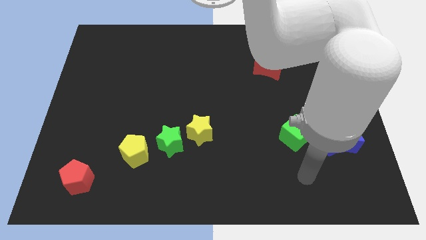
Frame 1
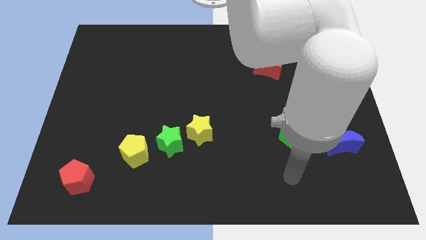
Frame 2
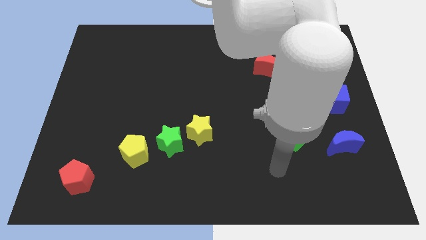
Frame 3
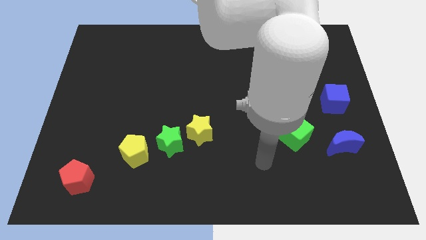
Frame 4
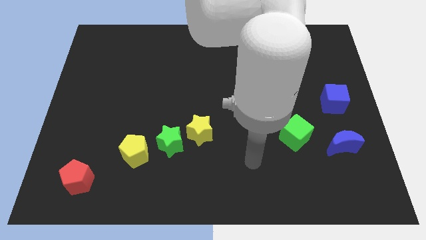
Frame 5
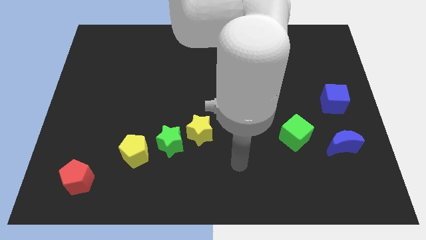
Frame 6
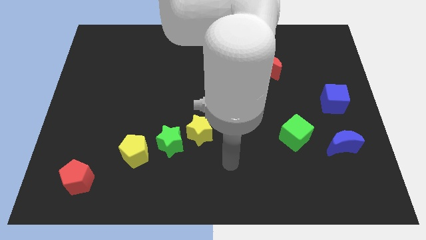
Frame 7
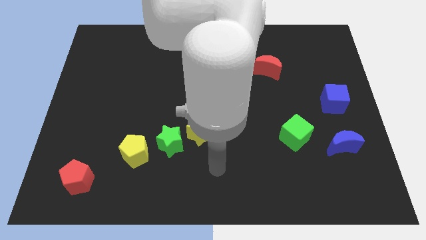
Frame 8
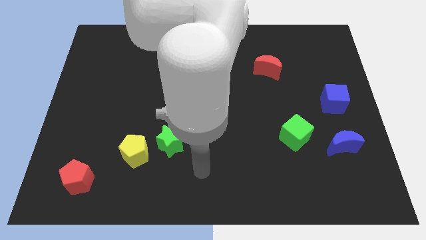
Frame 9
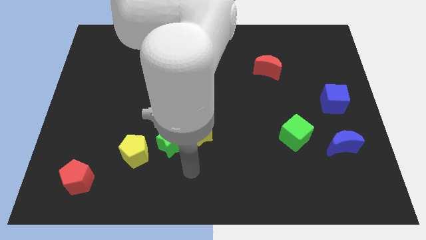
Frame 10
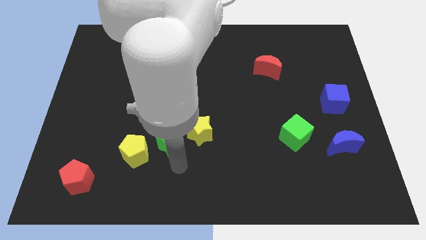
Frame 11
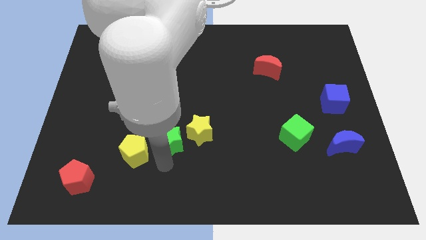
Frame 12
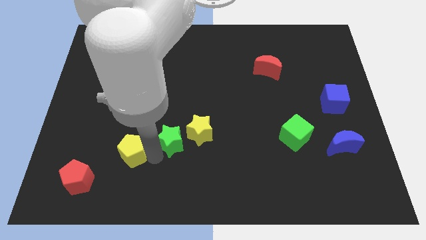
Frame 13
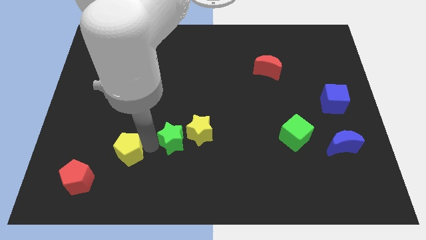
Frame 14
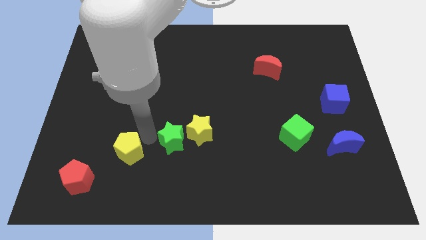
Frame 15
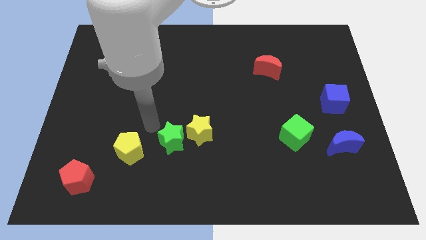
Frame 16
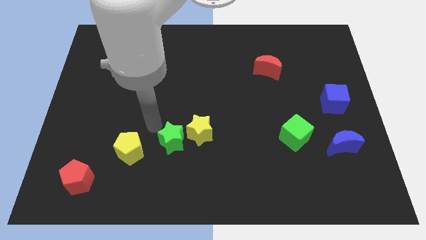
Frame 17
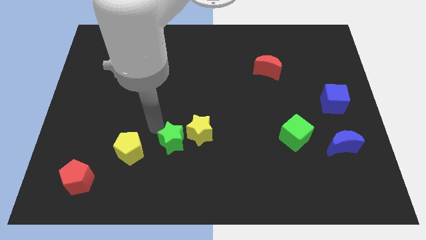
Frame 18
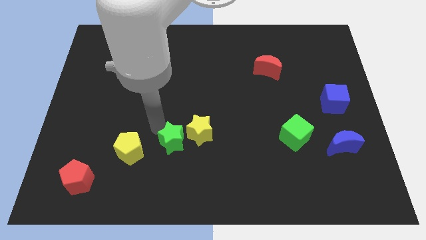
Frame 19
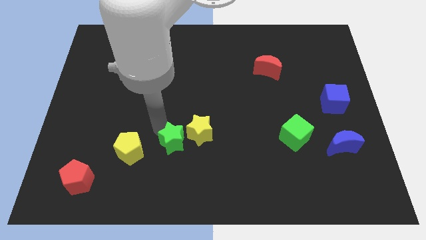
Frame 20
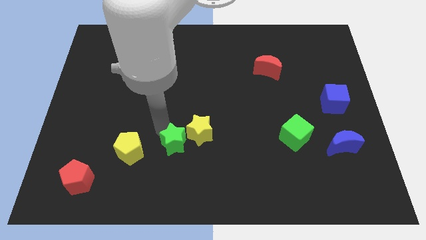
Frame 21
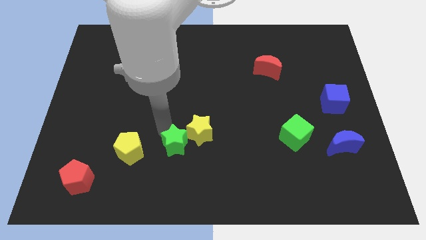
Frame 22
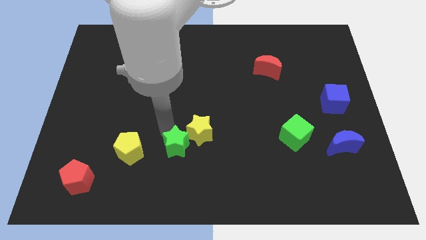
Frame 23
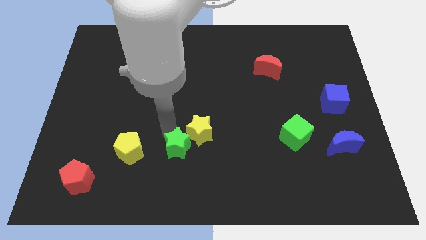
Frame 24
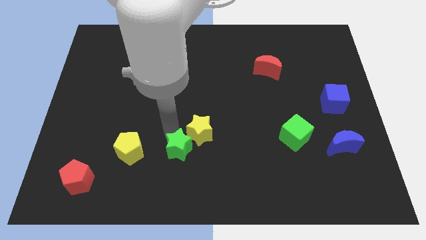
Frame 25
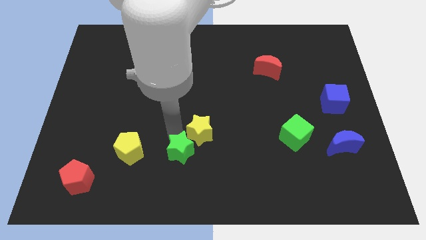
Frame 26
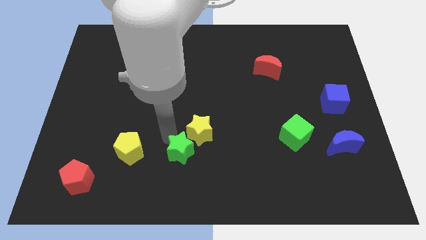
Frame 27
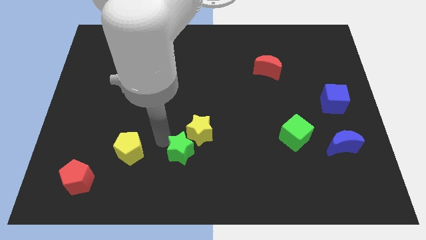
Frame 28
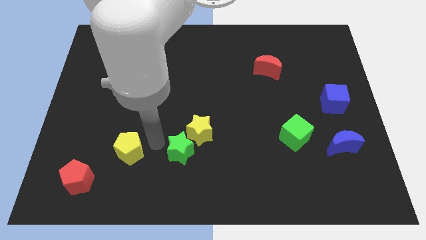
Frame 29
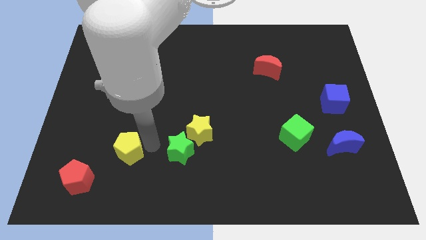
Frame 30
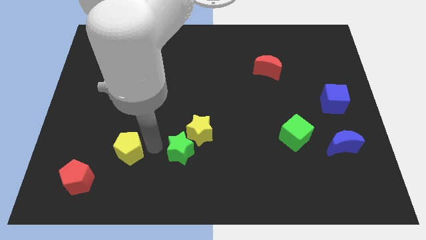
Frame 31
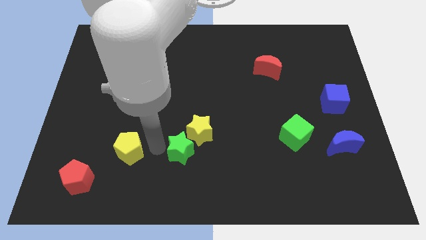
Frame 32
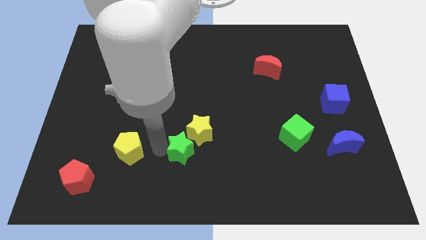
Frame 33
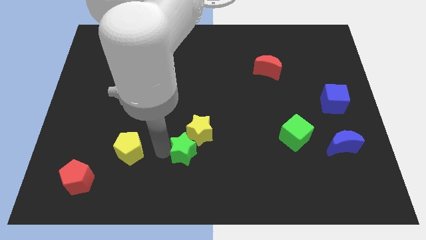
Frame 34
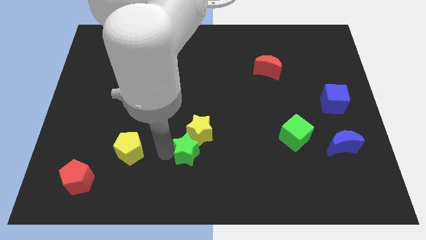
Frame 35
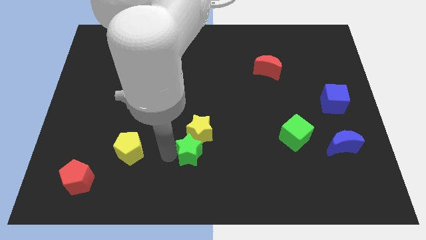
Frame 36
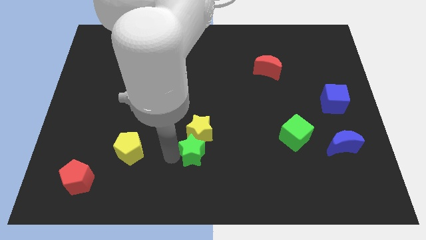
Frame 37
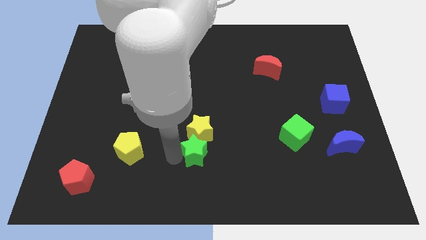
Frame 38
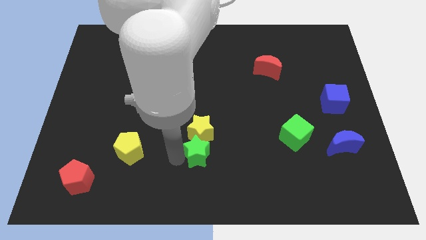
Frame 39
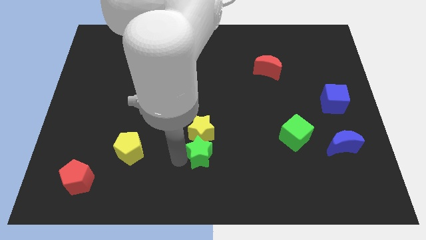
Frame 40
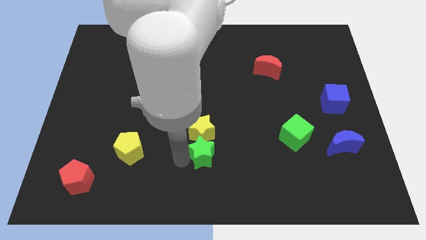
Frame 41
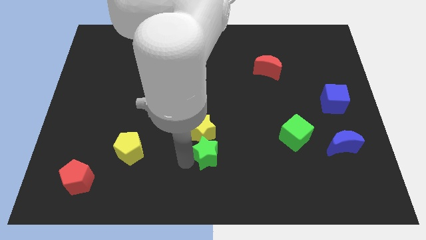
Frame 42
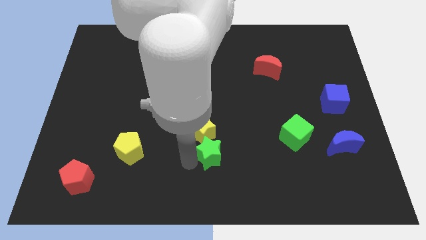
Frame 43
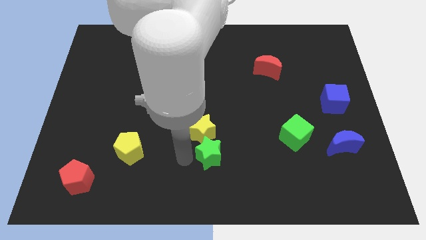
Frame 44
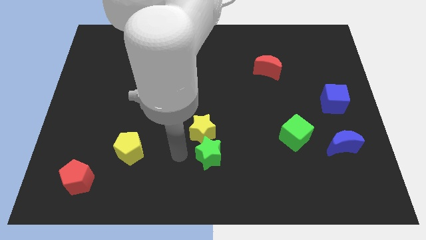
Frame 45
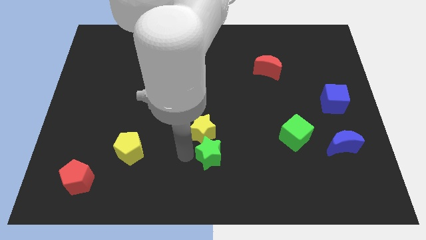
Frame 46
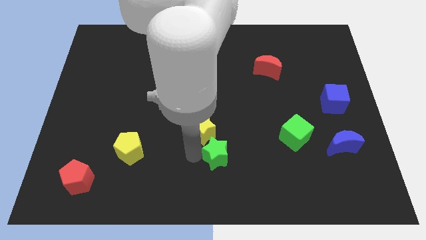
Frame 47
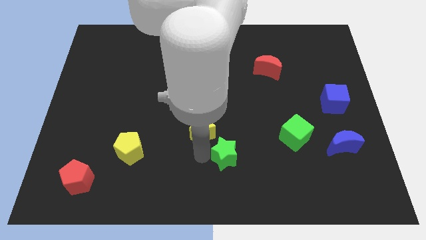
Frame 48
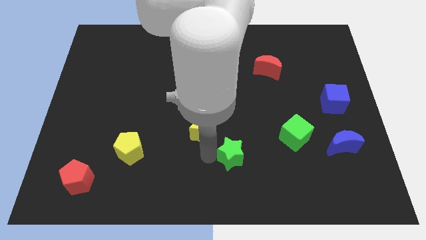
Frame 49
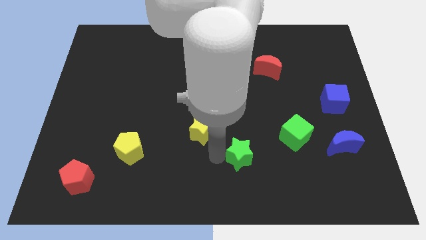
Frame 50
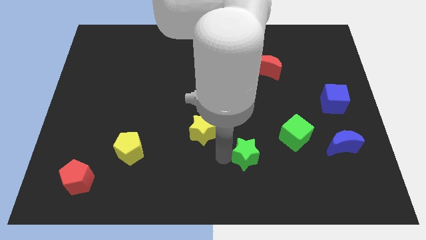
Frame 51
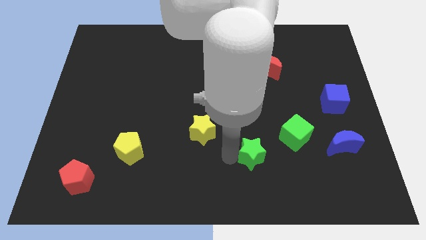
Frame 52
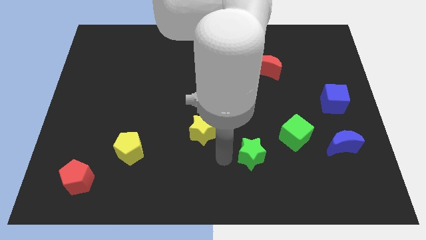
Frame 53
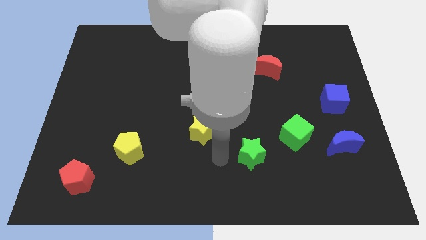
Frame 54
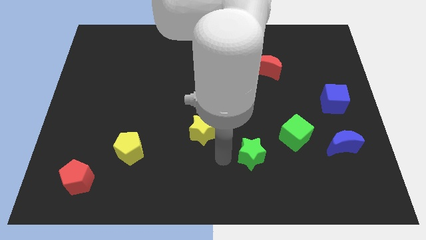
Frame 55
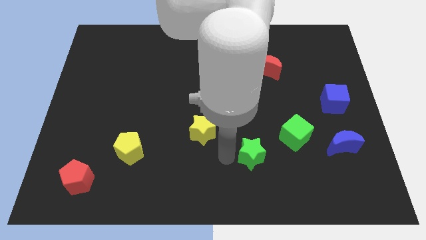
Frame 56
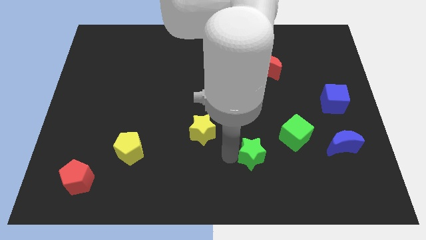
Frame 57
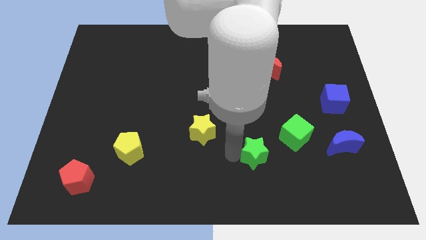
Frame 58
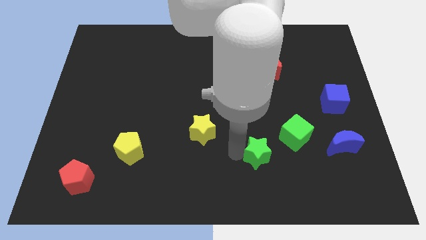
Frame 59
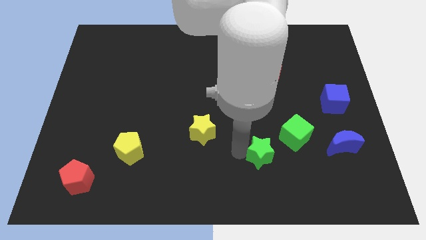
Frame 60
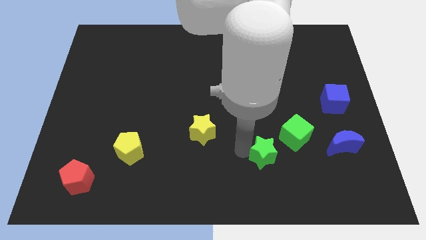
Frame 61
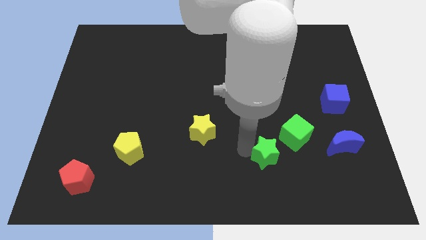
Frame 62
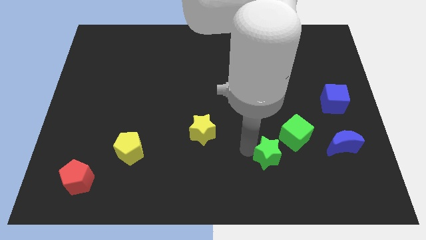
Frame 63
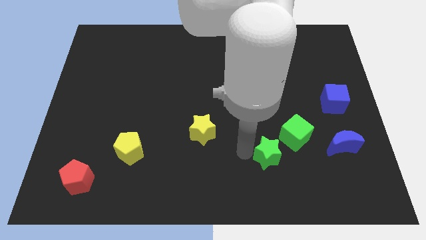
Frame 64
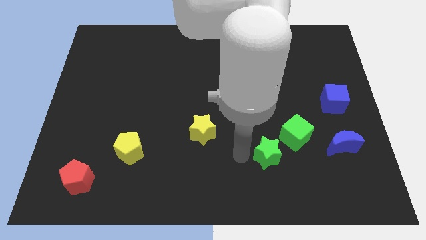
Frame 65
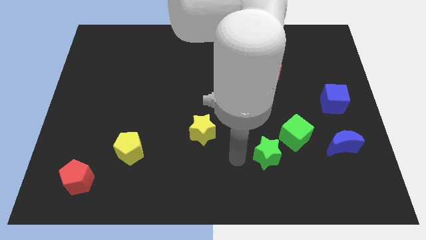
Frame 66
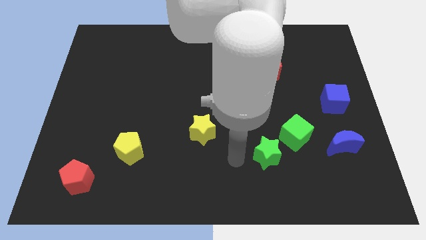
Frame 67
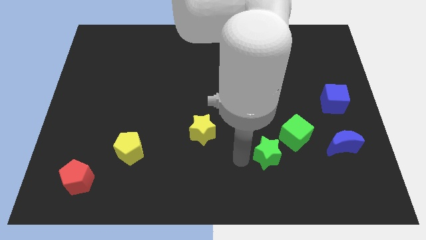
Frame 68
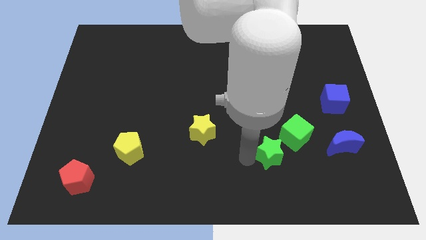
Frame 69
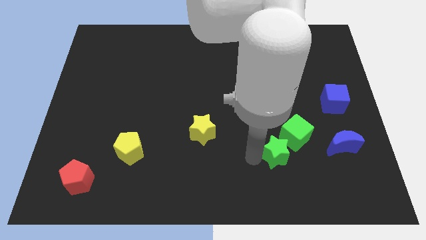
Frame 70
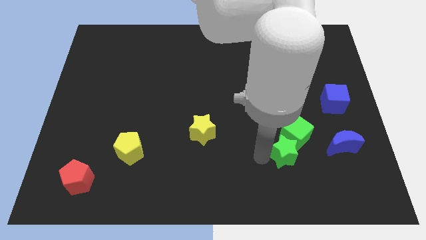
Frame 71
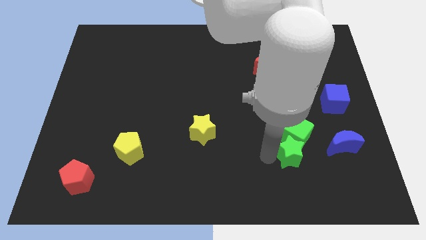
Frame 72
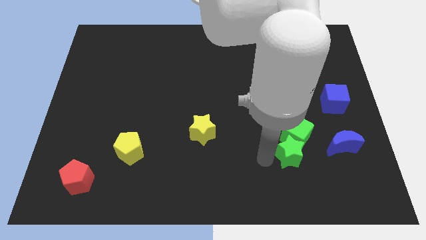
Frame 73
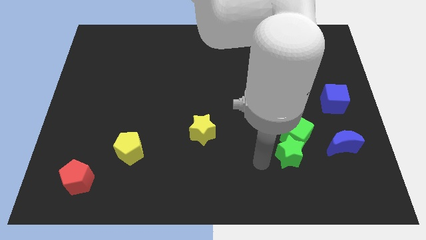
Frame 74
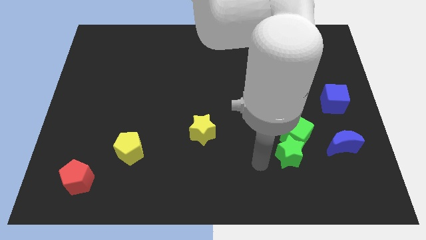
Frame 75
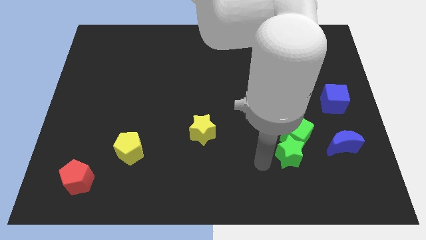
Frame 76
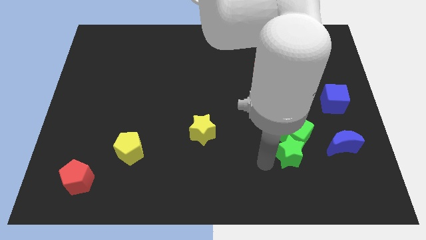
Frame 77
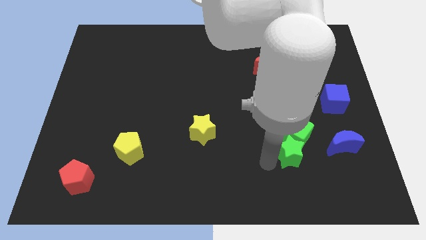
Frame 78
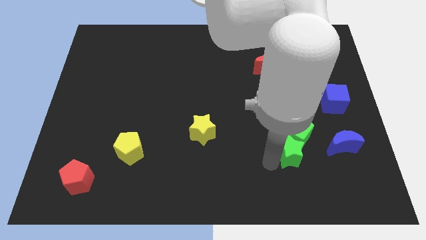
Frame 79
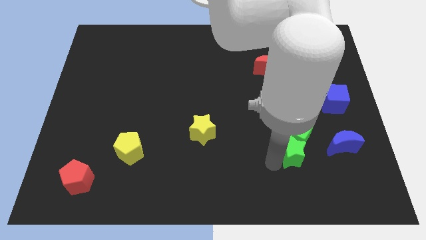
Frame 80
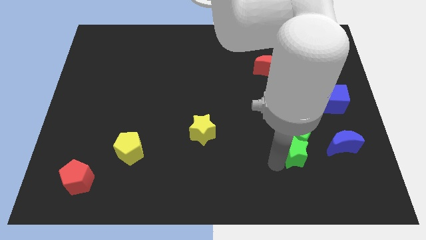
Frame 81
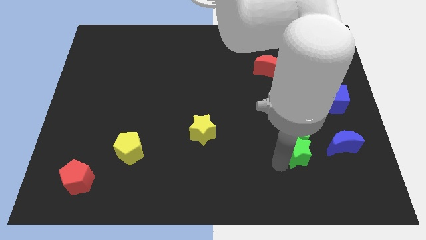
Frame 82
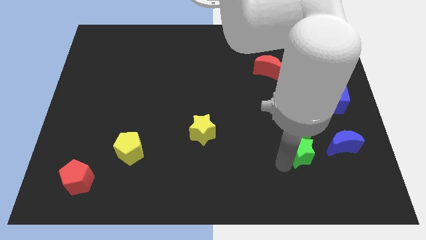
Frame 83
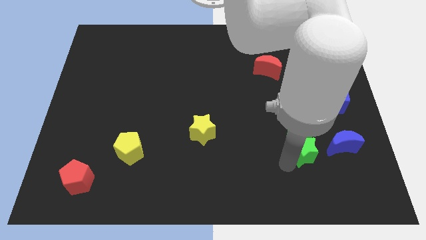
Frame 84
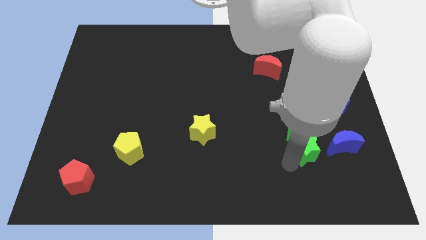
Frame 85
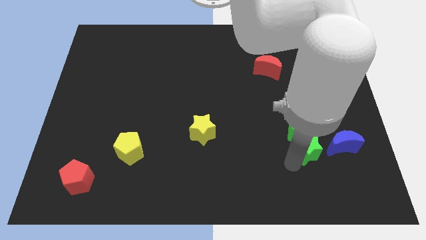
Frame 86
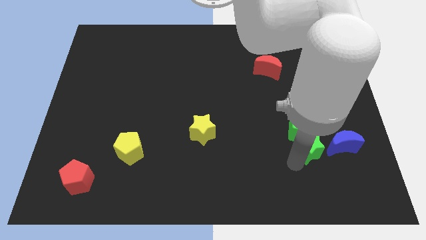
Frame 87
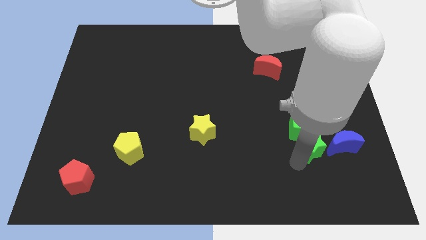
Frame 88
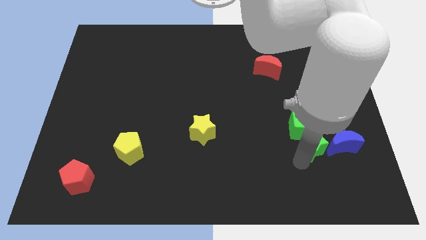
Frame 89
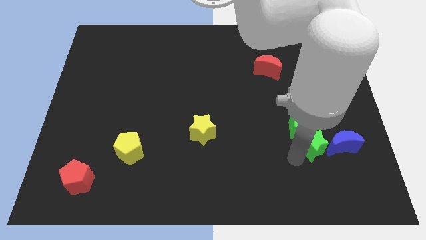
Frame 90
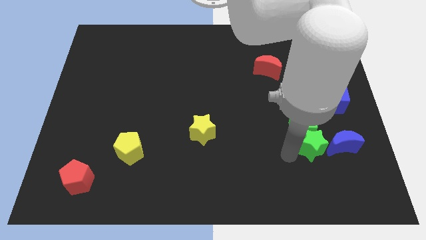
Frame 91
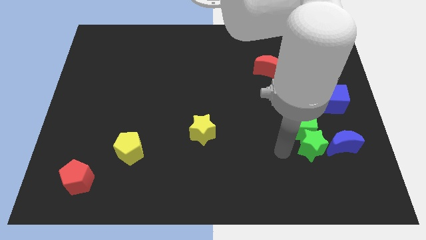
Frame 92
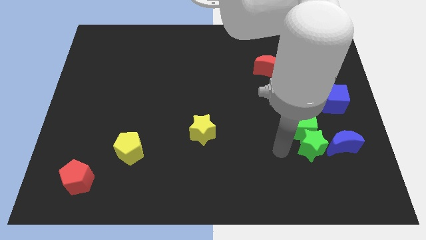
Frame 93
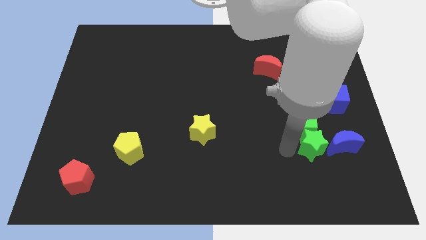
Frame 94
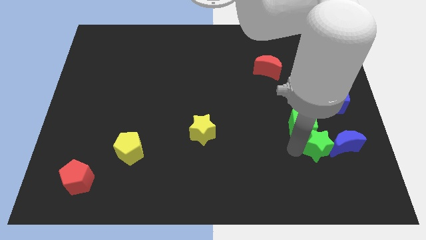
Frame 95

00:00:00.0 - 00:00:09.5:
push the green star close to the blue moon
